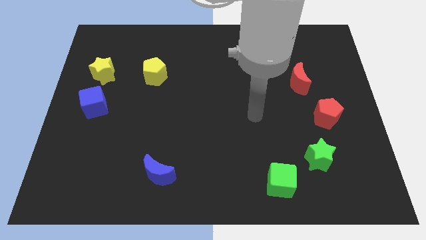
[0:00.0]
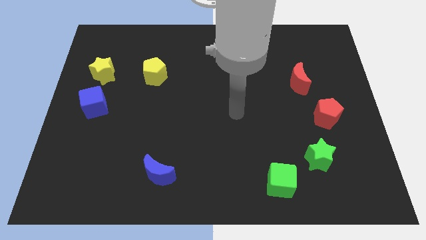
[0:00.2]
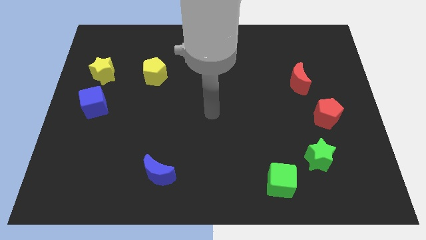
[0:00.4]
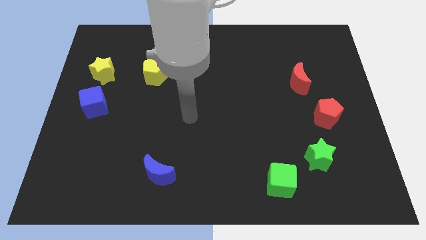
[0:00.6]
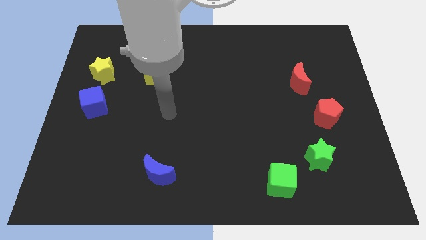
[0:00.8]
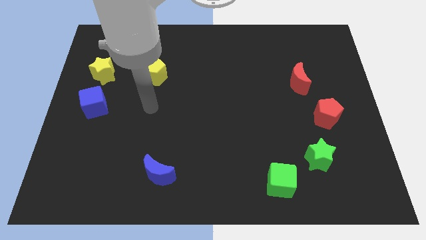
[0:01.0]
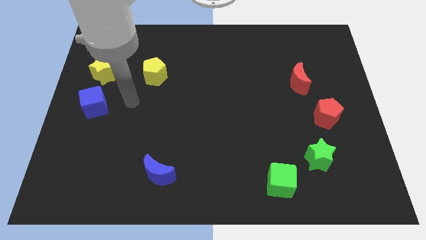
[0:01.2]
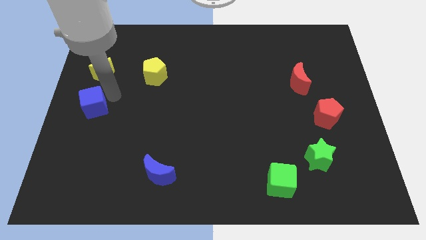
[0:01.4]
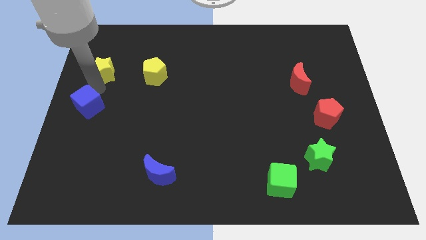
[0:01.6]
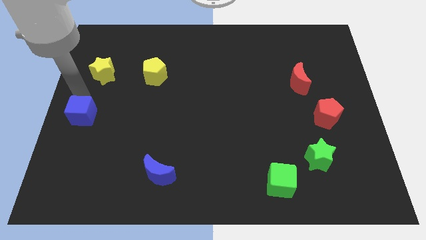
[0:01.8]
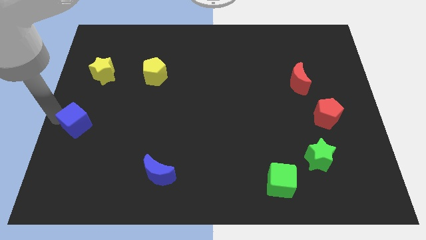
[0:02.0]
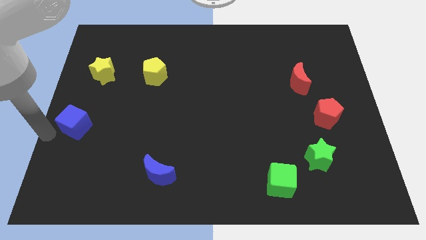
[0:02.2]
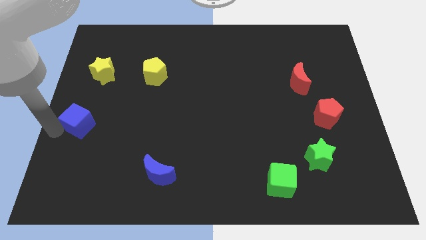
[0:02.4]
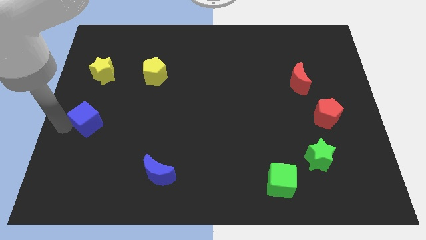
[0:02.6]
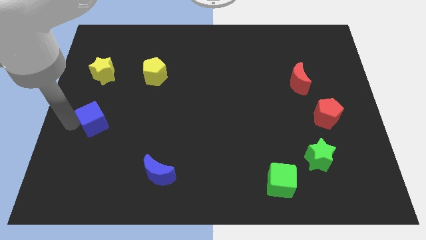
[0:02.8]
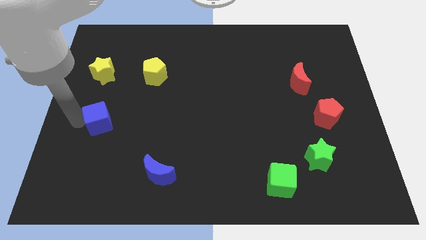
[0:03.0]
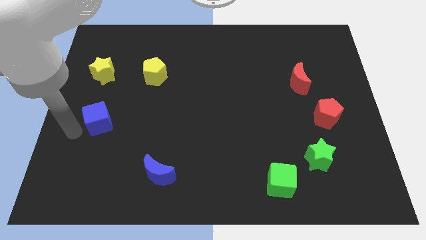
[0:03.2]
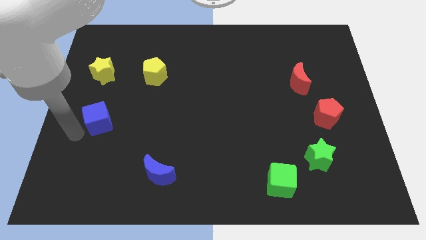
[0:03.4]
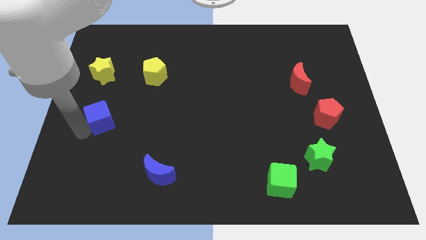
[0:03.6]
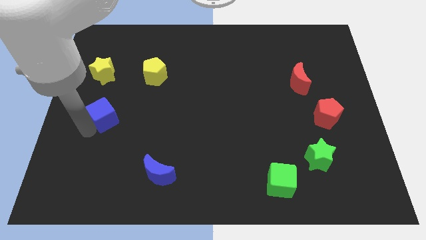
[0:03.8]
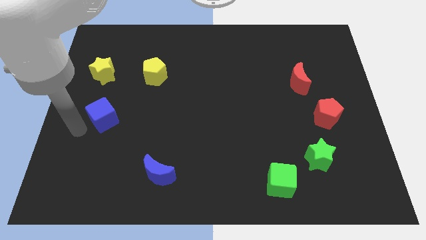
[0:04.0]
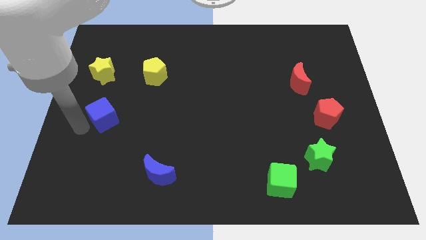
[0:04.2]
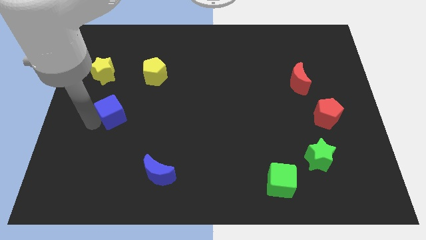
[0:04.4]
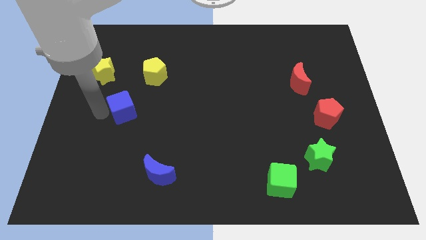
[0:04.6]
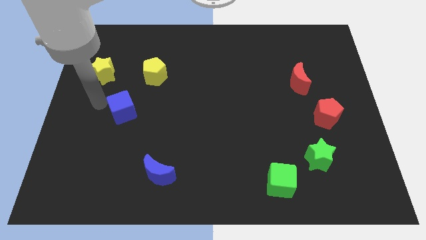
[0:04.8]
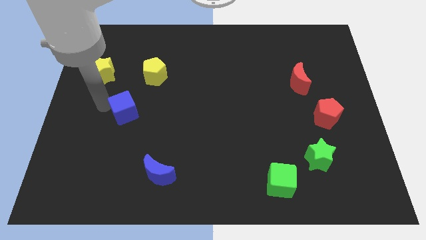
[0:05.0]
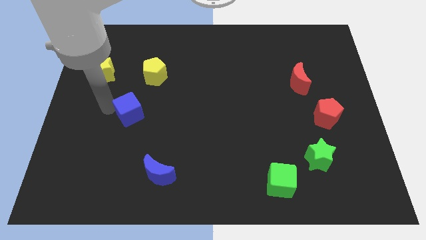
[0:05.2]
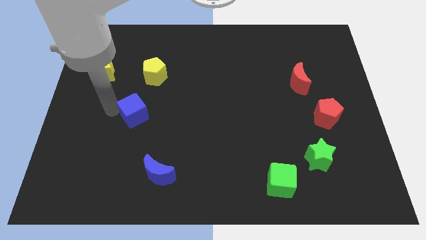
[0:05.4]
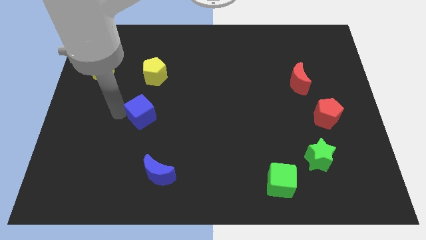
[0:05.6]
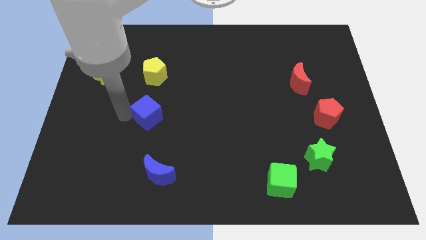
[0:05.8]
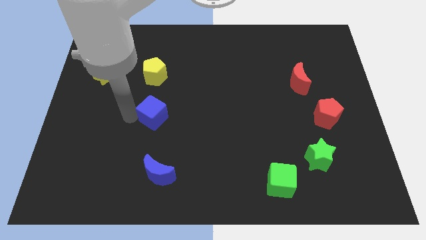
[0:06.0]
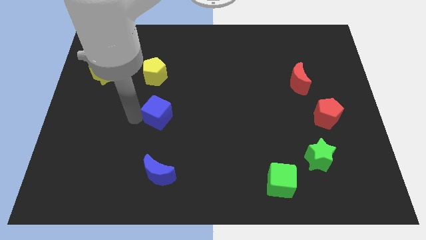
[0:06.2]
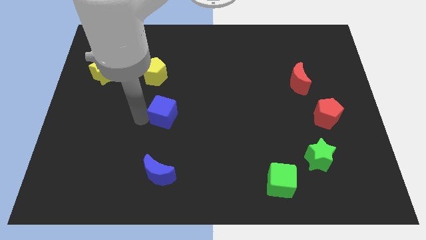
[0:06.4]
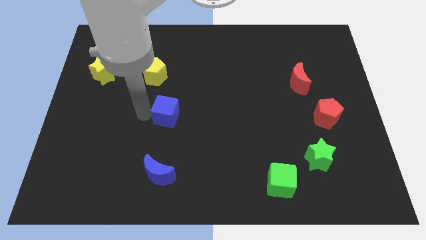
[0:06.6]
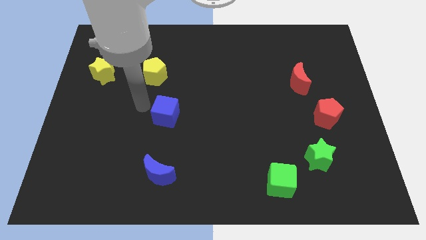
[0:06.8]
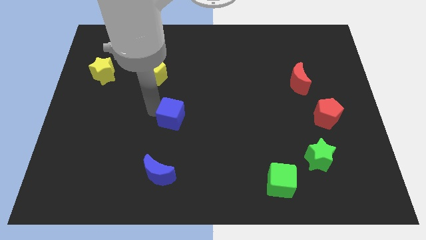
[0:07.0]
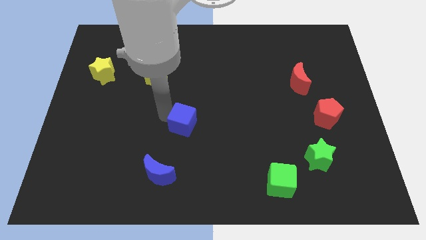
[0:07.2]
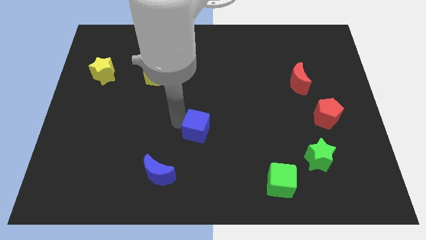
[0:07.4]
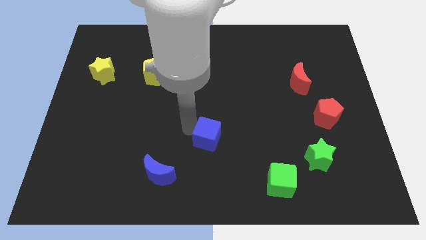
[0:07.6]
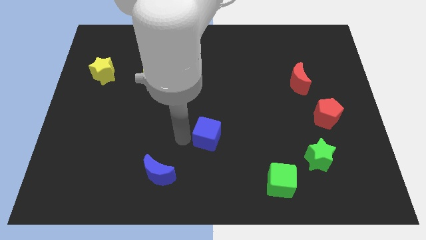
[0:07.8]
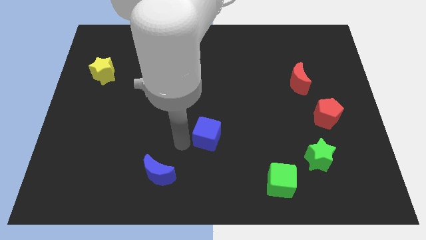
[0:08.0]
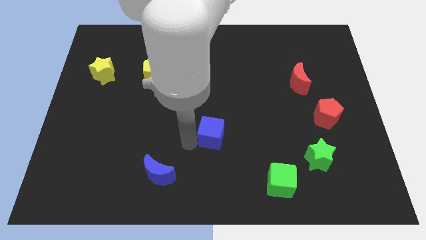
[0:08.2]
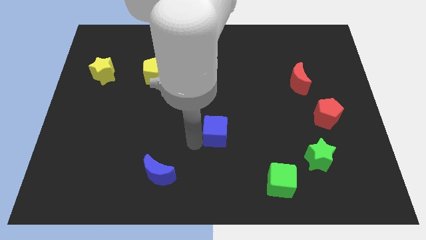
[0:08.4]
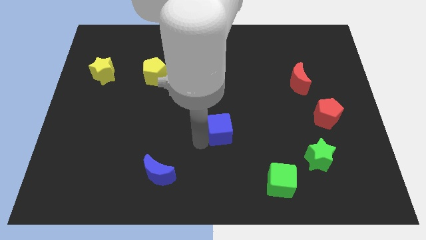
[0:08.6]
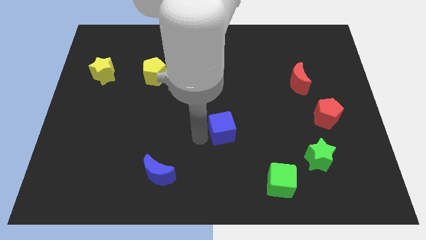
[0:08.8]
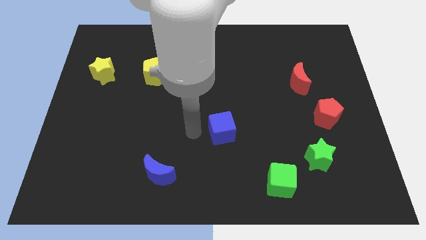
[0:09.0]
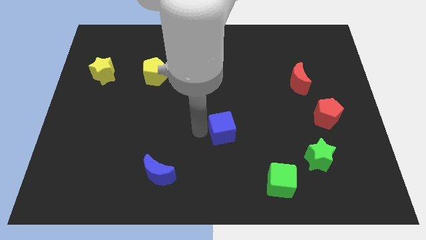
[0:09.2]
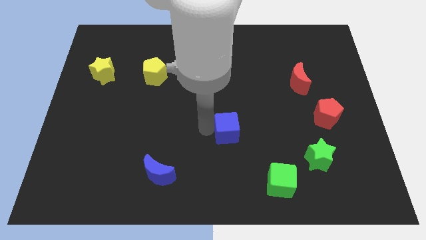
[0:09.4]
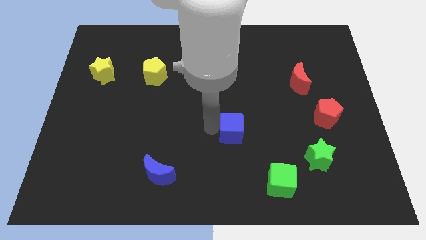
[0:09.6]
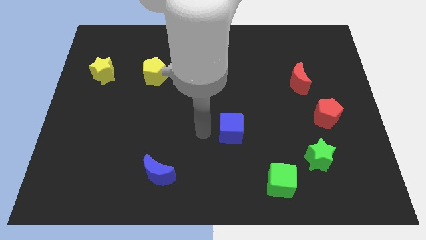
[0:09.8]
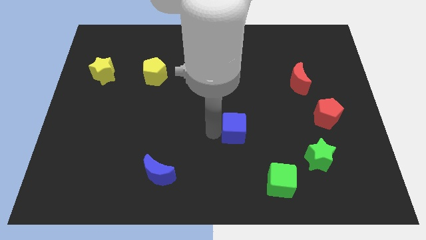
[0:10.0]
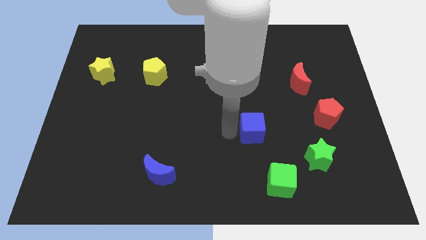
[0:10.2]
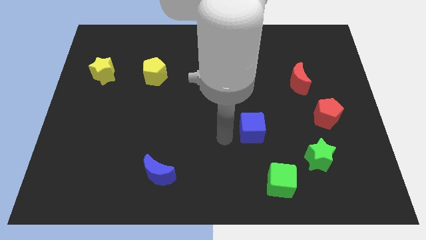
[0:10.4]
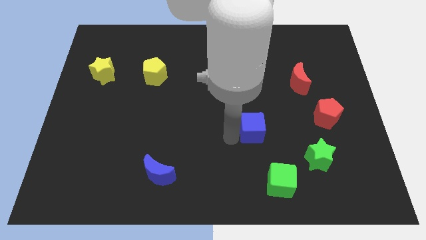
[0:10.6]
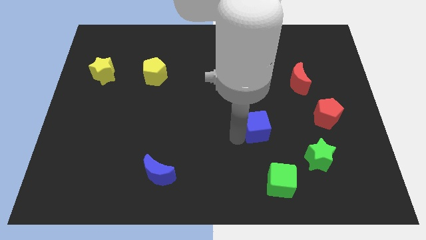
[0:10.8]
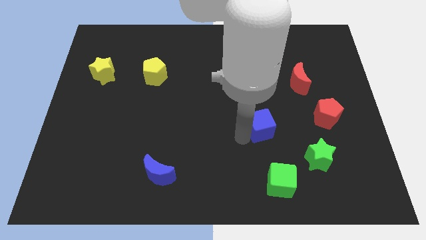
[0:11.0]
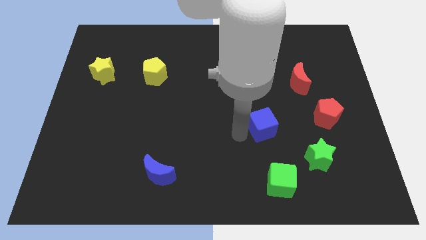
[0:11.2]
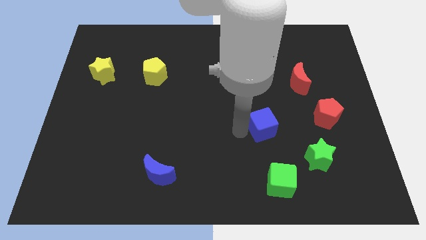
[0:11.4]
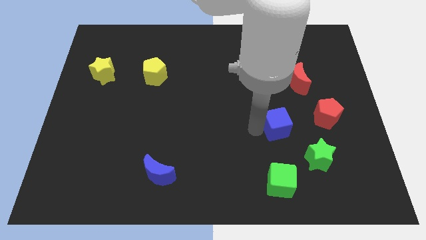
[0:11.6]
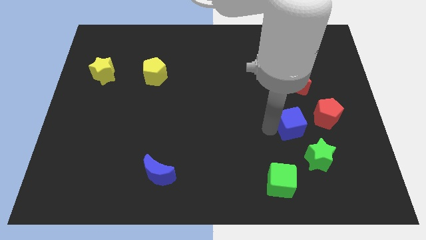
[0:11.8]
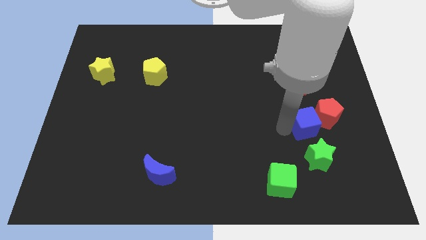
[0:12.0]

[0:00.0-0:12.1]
move the blue cube towards the red pentagon
